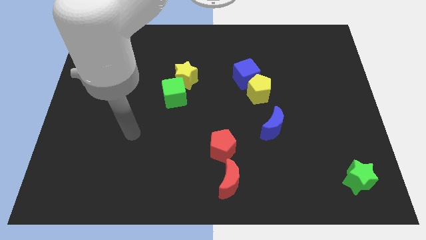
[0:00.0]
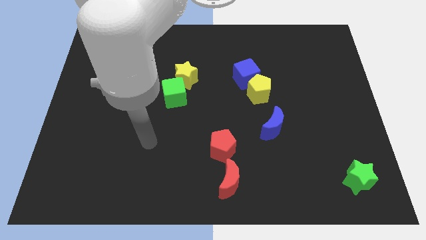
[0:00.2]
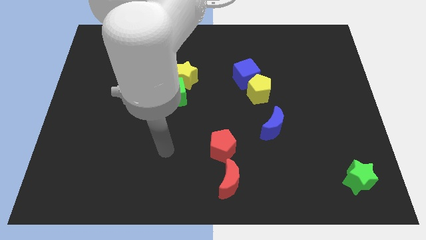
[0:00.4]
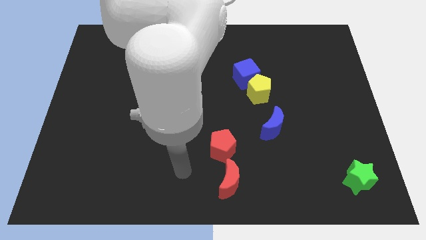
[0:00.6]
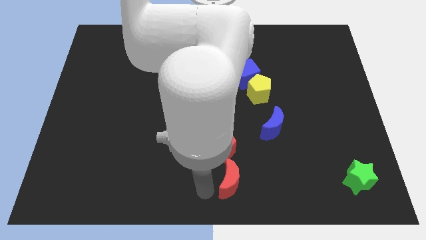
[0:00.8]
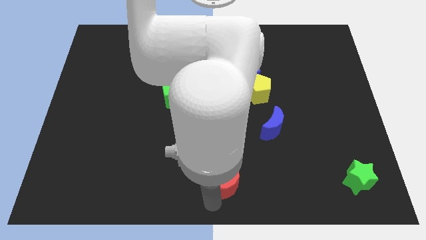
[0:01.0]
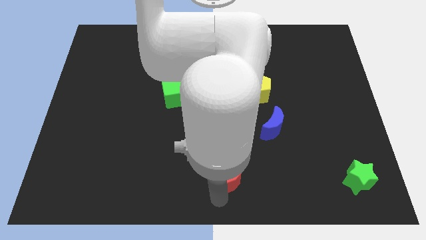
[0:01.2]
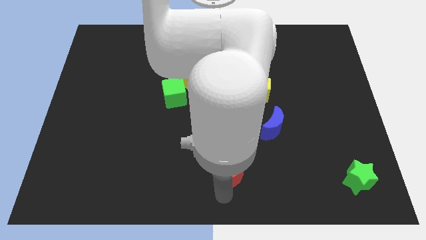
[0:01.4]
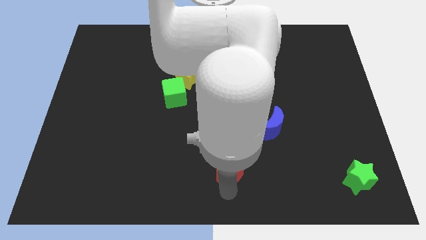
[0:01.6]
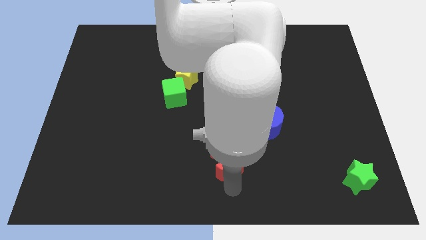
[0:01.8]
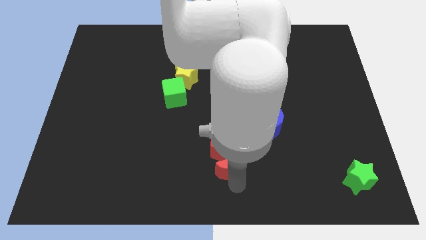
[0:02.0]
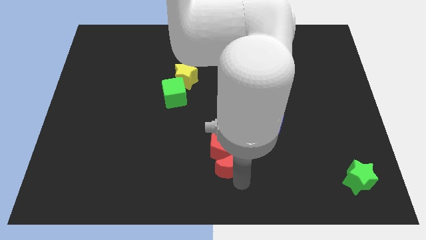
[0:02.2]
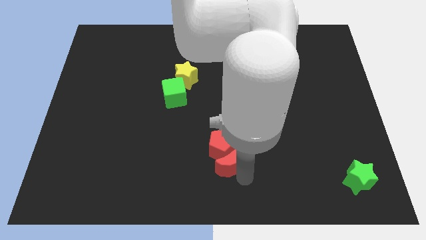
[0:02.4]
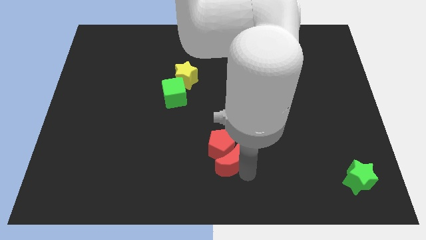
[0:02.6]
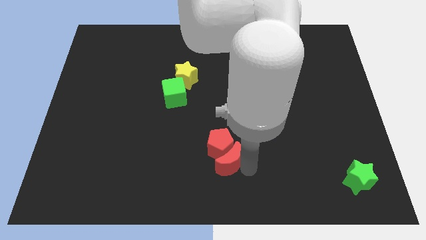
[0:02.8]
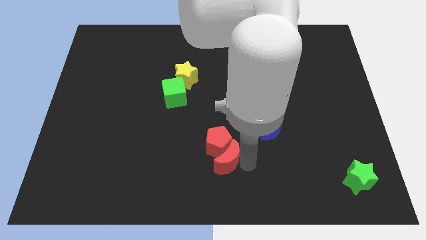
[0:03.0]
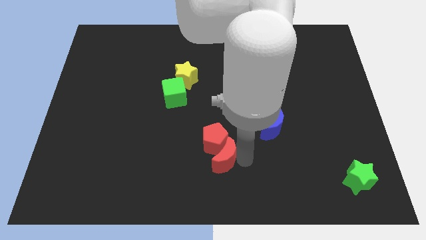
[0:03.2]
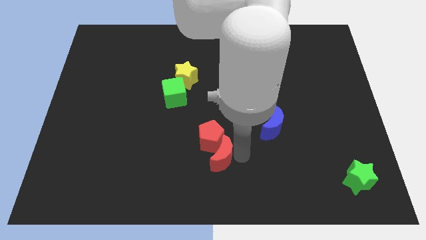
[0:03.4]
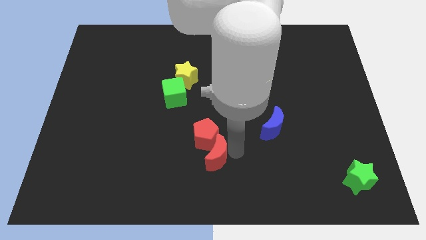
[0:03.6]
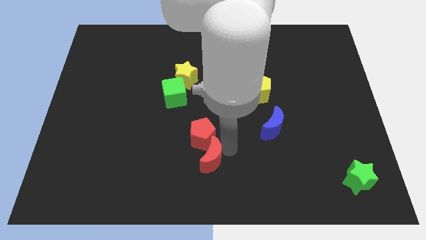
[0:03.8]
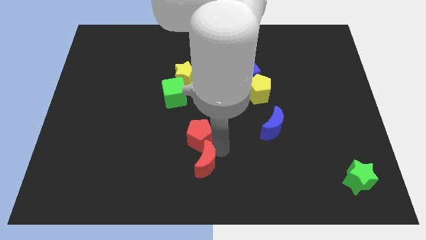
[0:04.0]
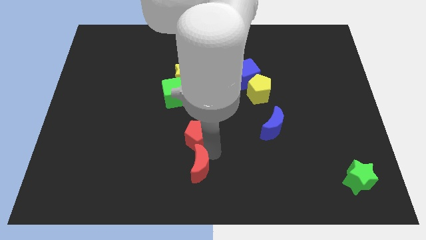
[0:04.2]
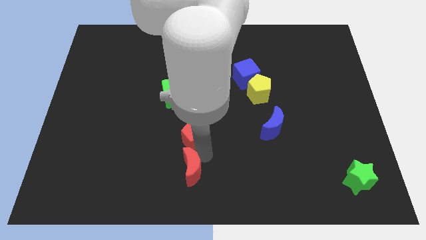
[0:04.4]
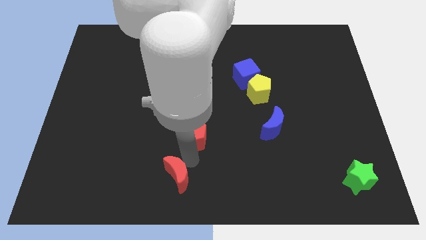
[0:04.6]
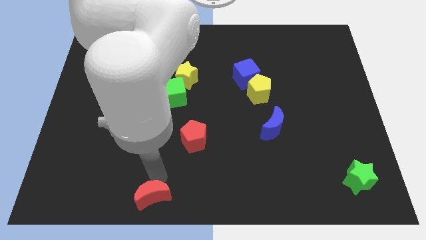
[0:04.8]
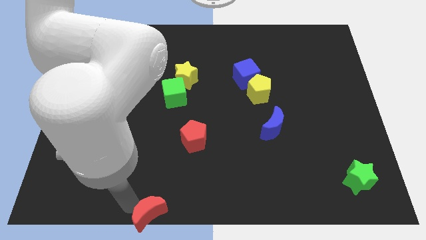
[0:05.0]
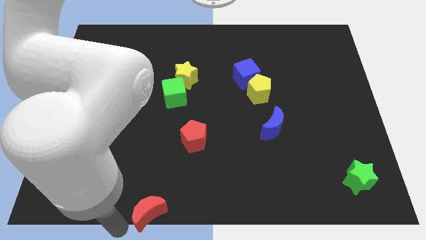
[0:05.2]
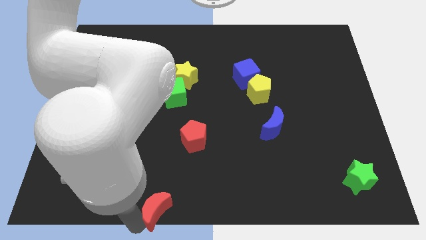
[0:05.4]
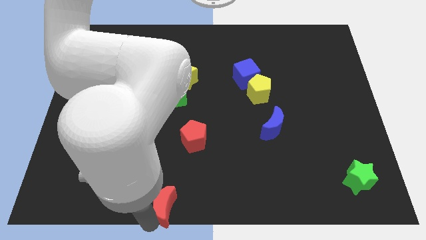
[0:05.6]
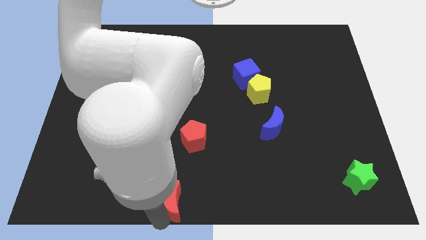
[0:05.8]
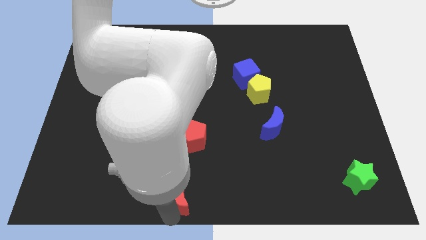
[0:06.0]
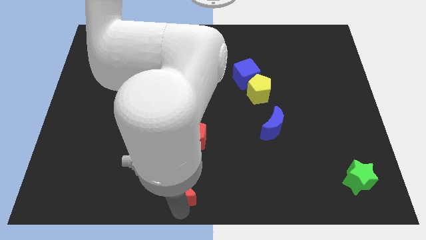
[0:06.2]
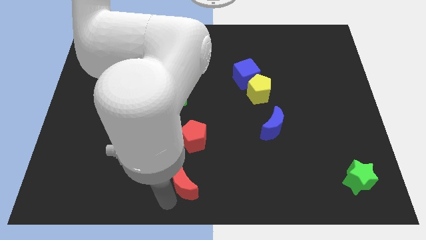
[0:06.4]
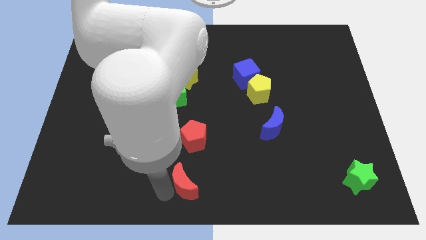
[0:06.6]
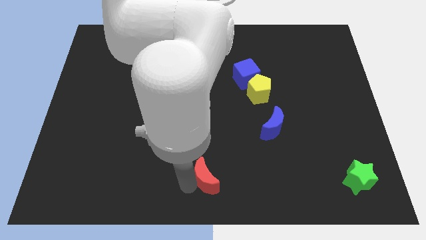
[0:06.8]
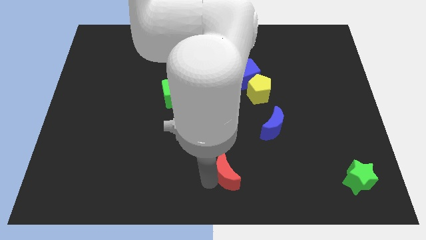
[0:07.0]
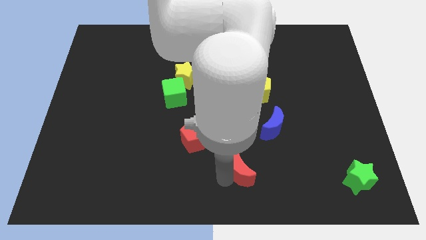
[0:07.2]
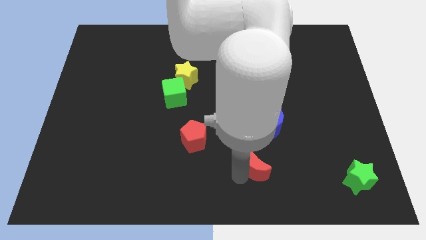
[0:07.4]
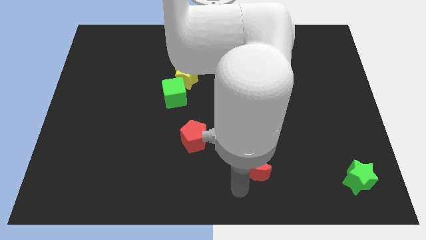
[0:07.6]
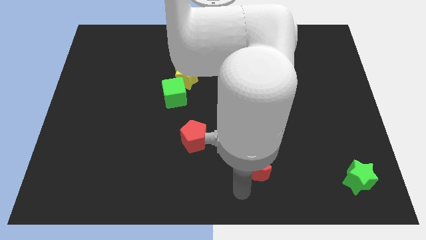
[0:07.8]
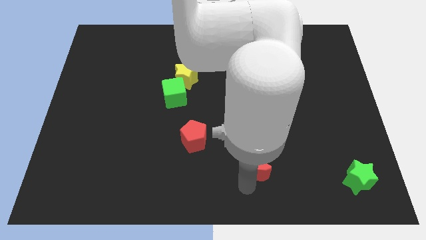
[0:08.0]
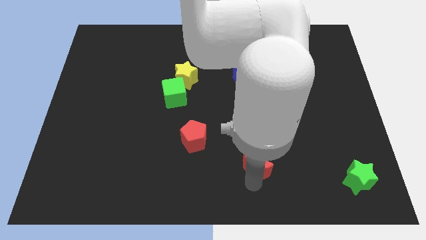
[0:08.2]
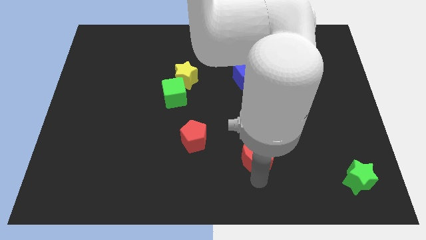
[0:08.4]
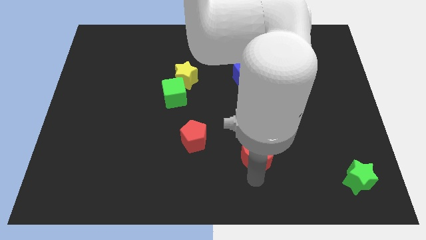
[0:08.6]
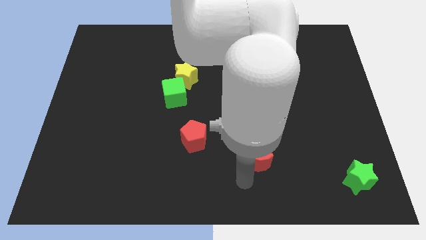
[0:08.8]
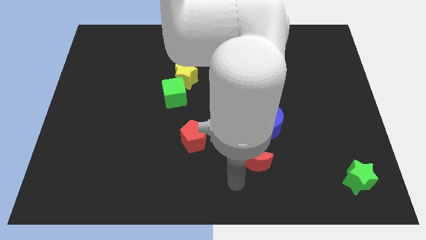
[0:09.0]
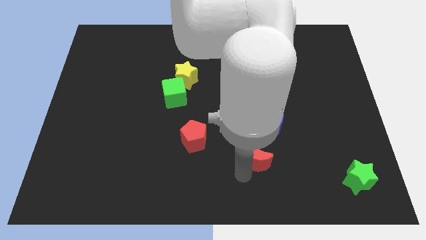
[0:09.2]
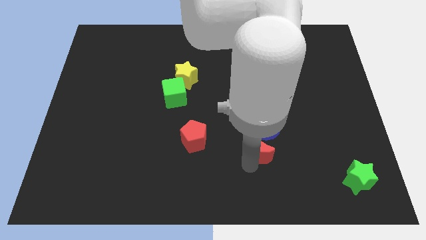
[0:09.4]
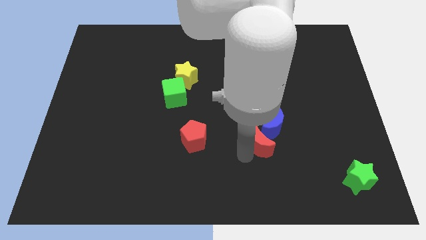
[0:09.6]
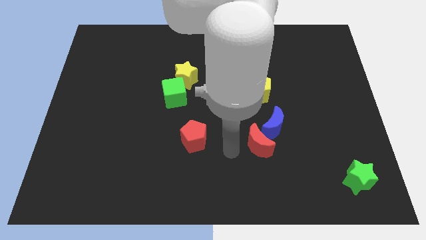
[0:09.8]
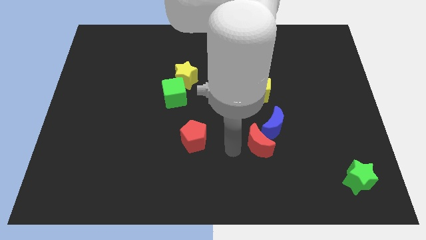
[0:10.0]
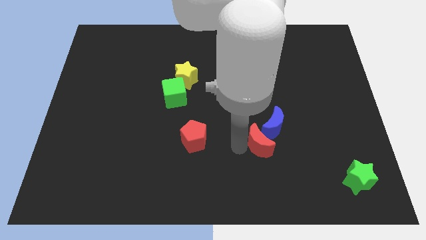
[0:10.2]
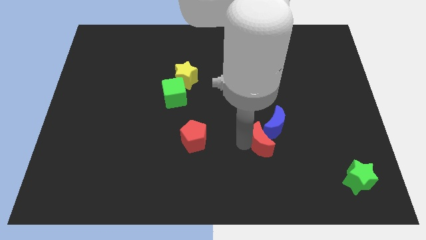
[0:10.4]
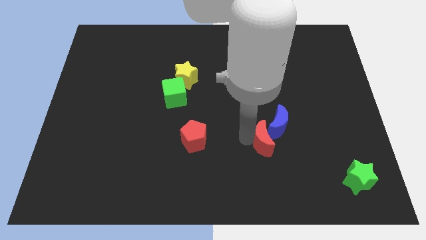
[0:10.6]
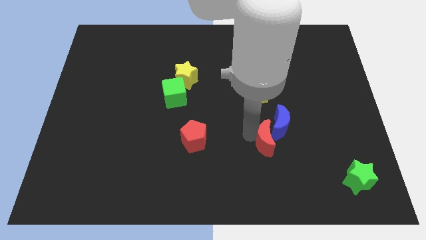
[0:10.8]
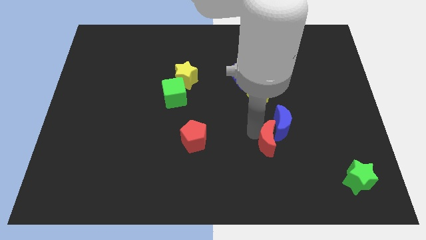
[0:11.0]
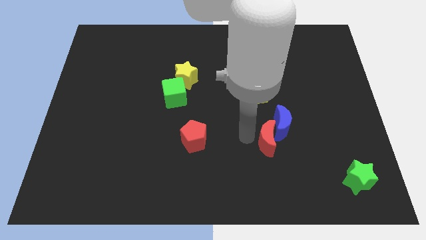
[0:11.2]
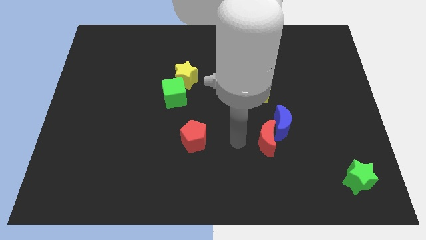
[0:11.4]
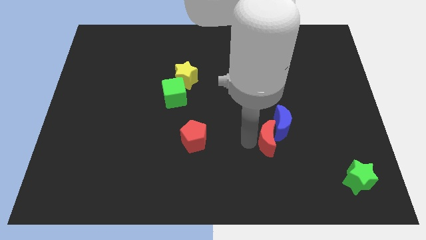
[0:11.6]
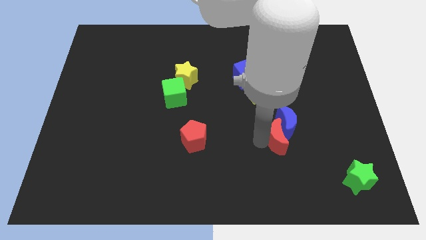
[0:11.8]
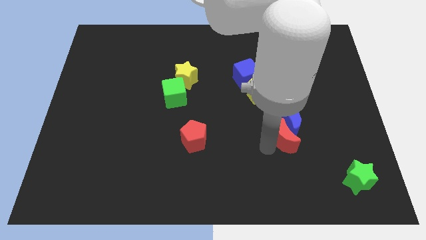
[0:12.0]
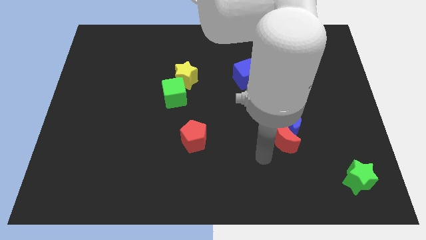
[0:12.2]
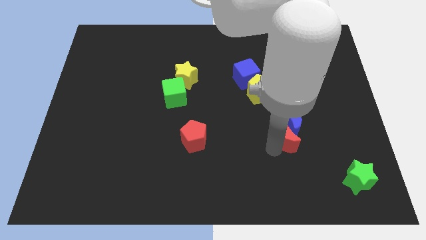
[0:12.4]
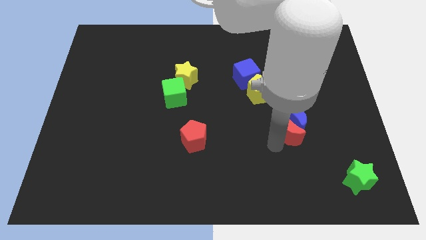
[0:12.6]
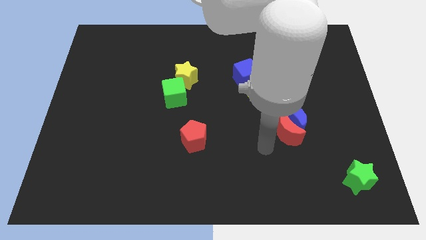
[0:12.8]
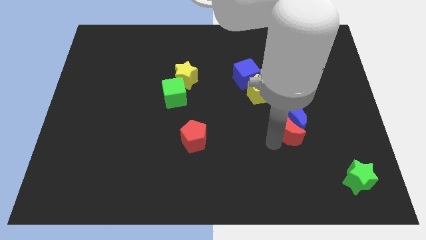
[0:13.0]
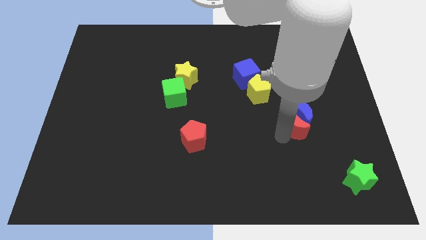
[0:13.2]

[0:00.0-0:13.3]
slide the red moon up and right

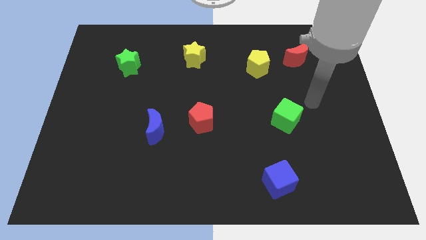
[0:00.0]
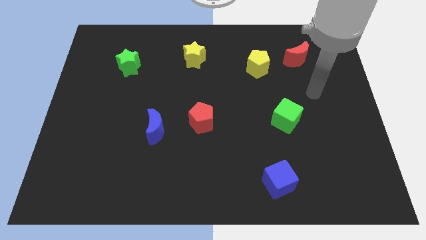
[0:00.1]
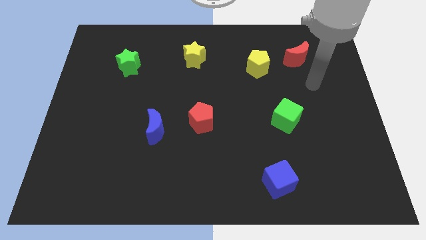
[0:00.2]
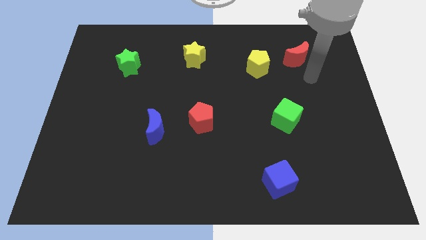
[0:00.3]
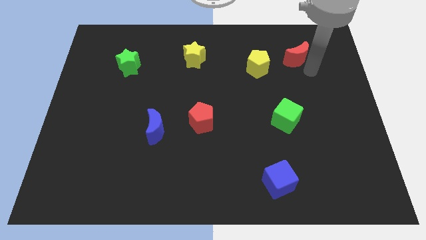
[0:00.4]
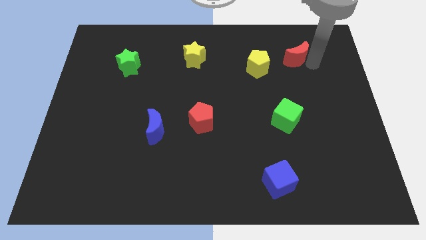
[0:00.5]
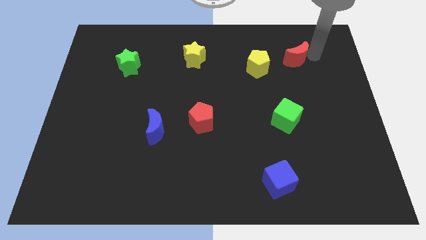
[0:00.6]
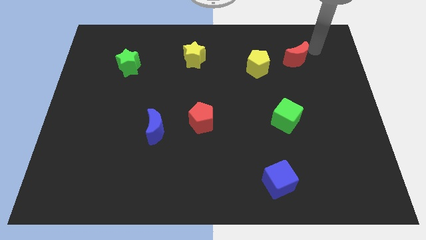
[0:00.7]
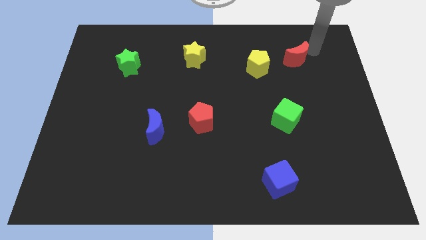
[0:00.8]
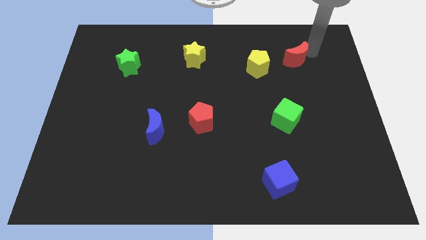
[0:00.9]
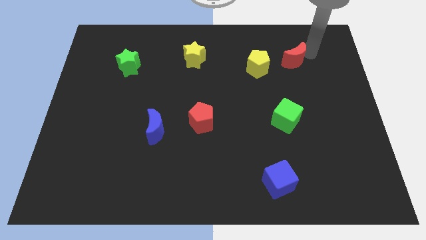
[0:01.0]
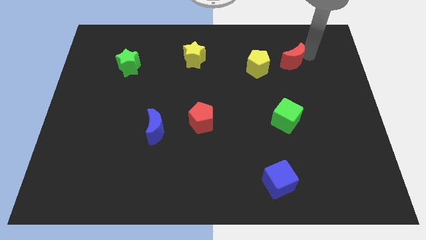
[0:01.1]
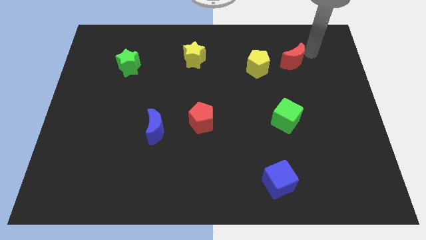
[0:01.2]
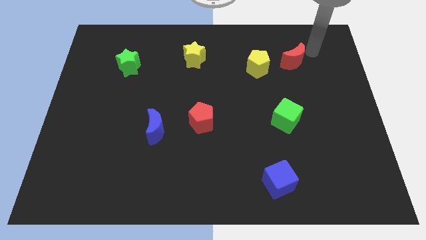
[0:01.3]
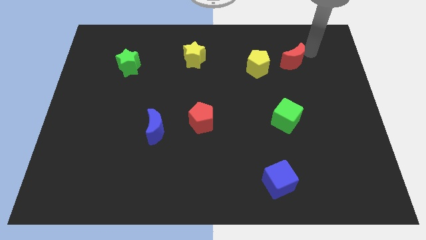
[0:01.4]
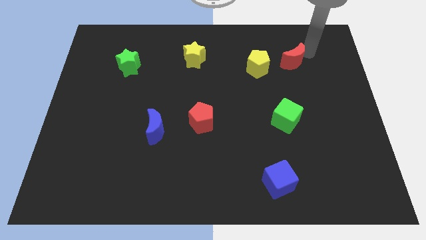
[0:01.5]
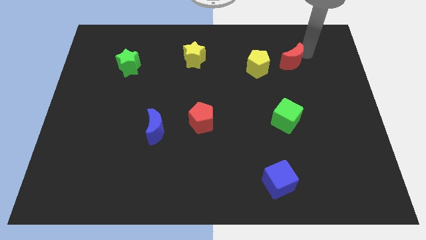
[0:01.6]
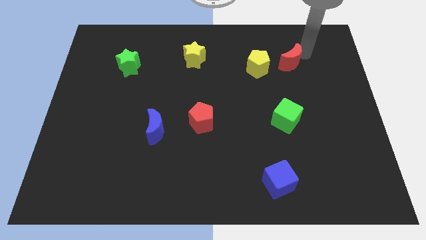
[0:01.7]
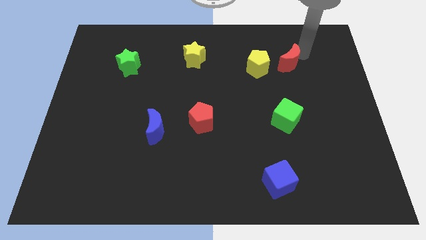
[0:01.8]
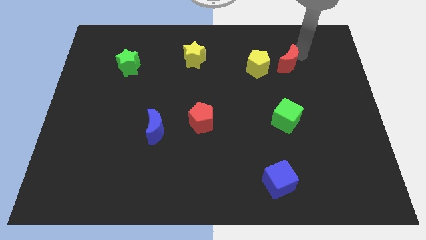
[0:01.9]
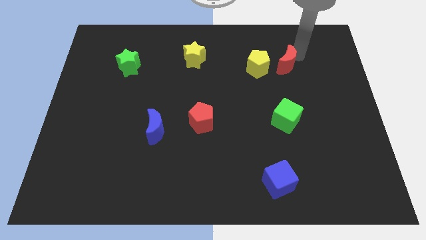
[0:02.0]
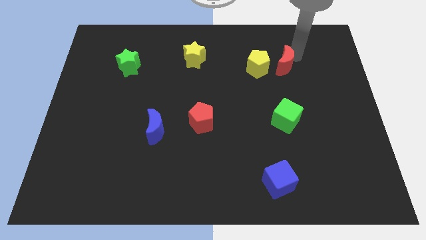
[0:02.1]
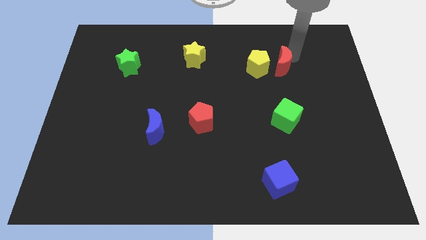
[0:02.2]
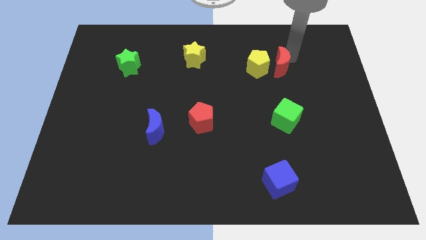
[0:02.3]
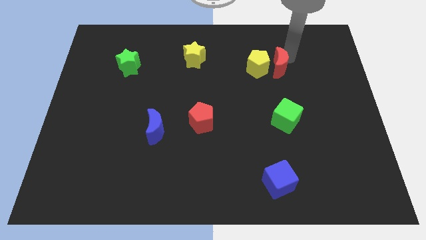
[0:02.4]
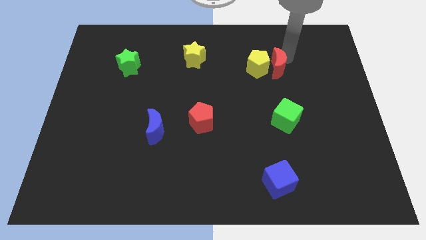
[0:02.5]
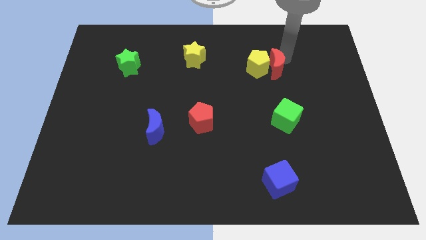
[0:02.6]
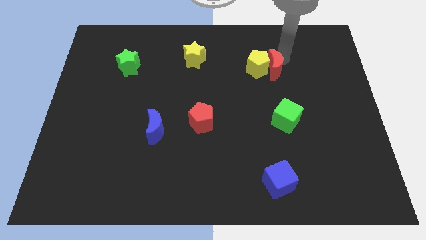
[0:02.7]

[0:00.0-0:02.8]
slide the red moon downwards and then left somewhat
